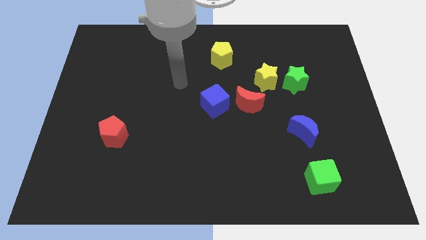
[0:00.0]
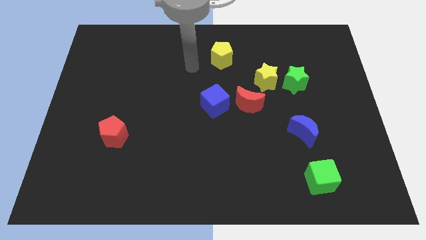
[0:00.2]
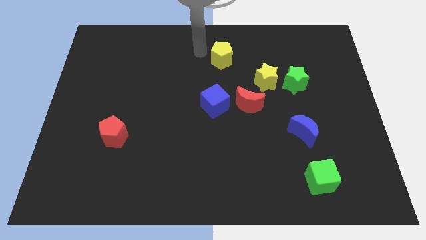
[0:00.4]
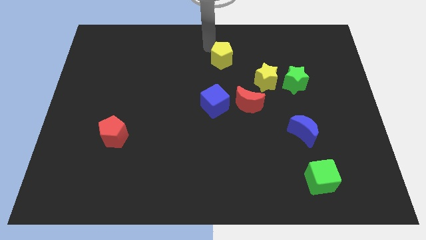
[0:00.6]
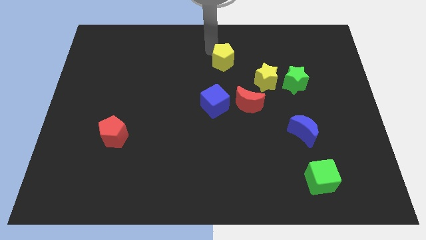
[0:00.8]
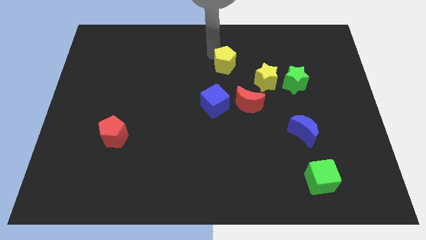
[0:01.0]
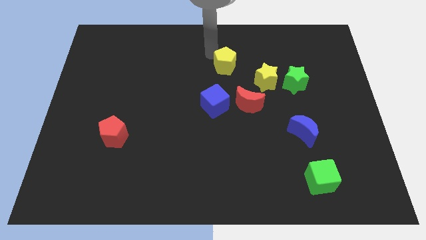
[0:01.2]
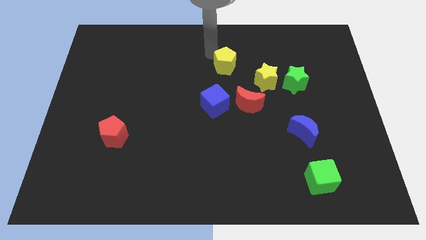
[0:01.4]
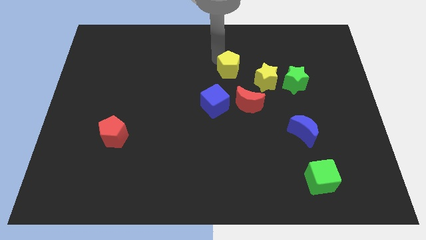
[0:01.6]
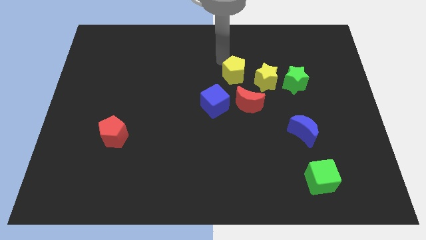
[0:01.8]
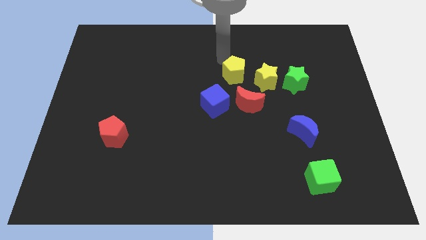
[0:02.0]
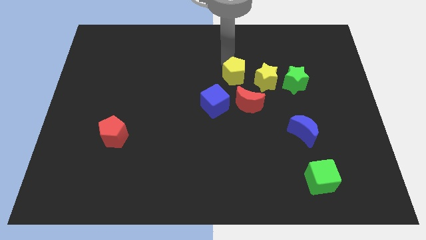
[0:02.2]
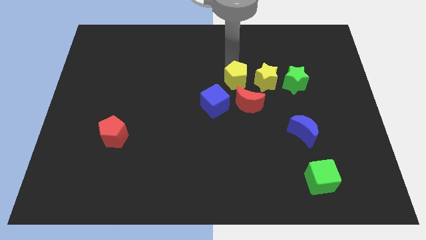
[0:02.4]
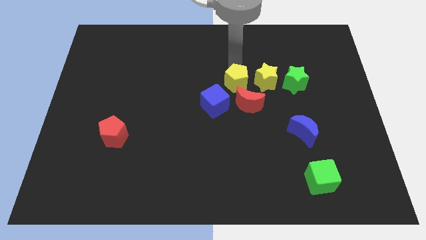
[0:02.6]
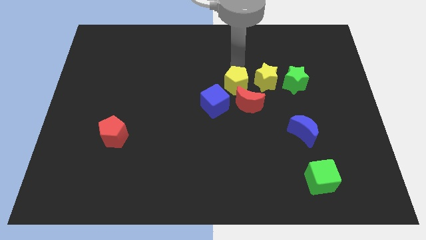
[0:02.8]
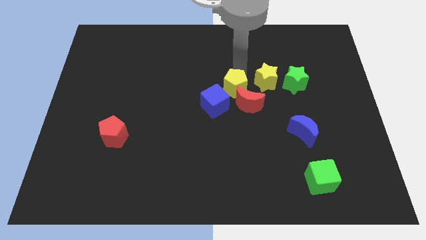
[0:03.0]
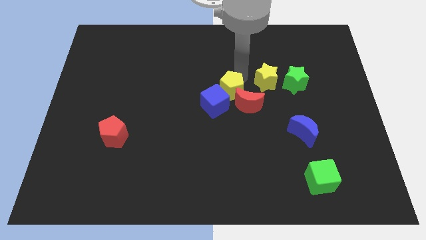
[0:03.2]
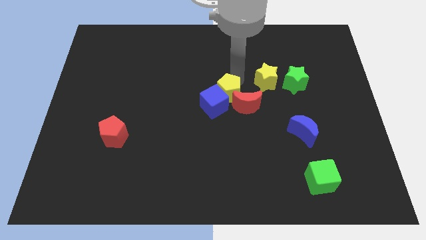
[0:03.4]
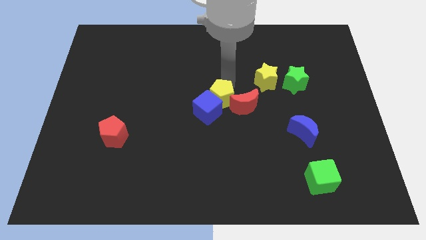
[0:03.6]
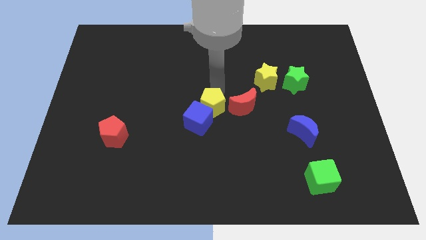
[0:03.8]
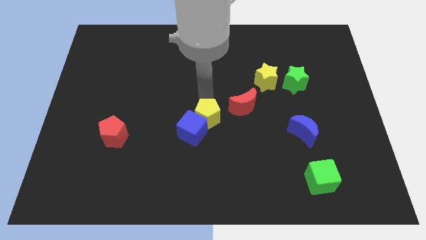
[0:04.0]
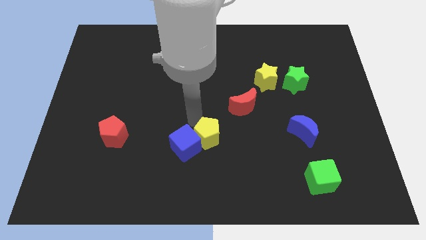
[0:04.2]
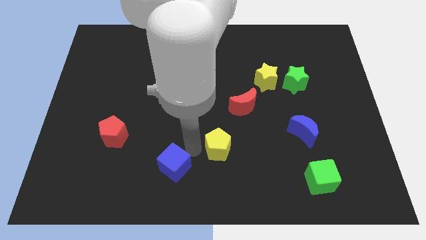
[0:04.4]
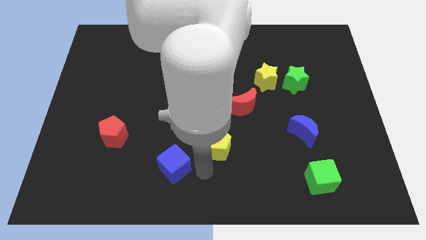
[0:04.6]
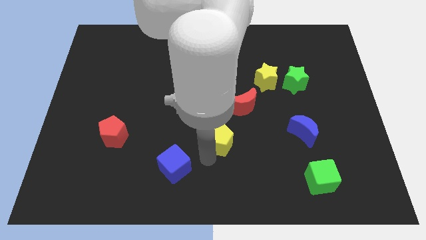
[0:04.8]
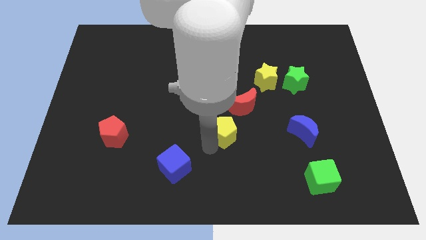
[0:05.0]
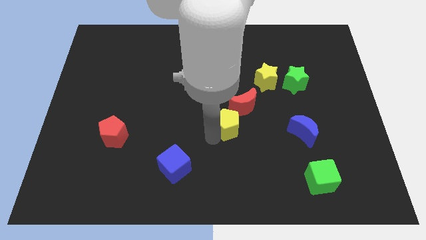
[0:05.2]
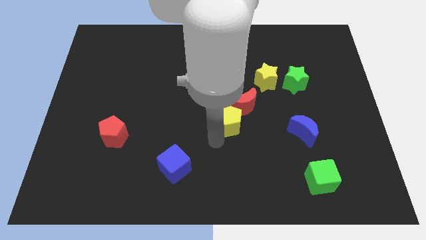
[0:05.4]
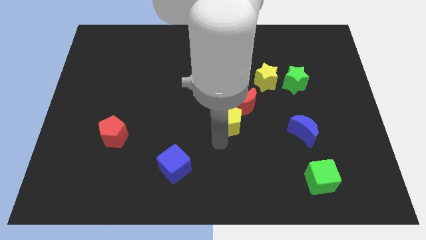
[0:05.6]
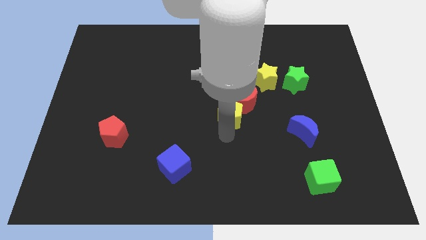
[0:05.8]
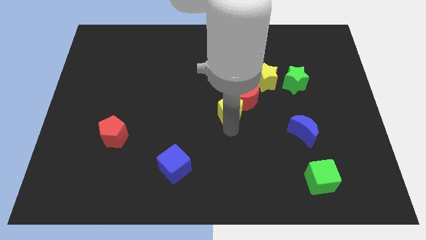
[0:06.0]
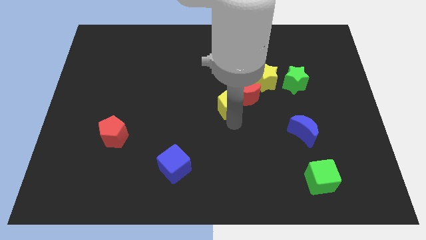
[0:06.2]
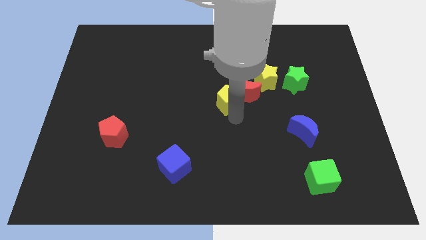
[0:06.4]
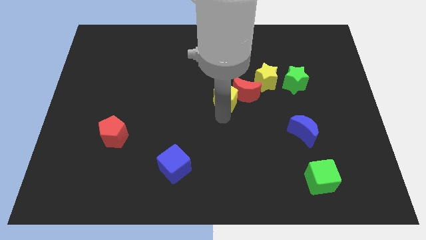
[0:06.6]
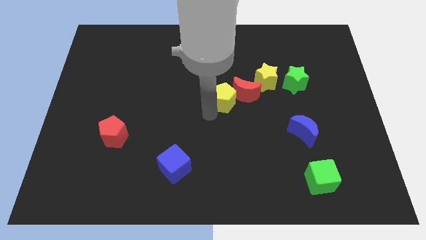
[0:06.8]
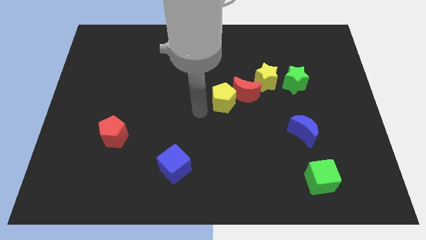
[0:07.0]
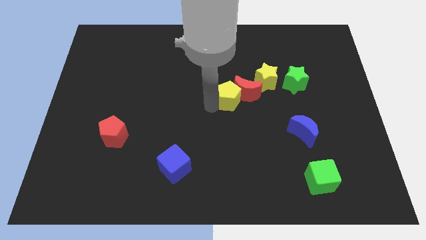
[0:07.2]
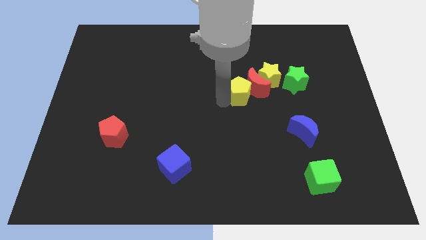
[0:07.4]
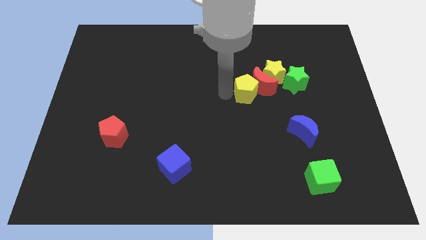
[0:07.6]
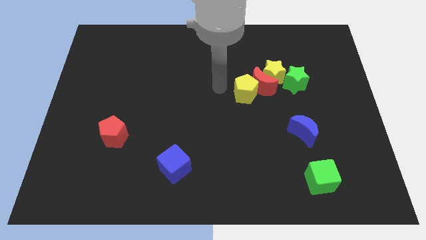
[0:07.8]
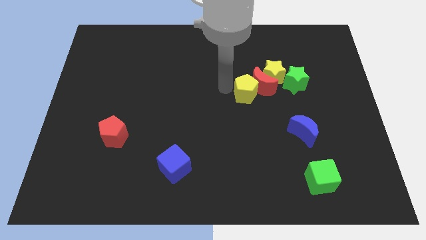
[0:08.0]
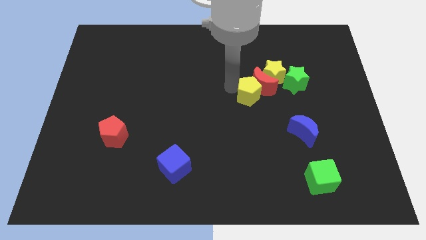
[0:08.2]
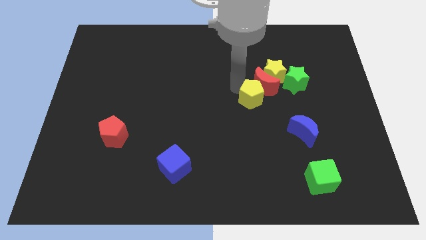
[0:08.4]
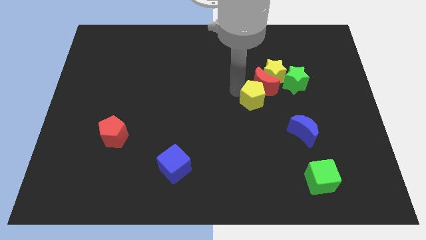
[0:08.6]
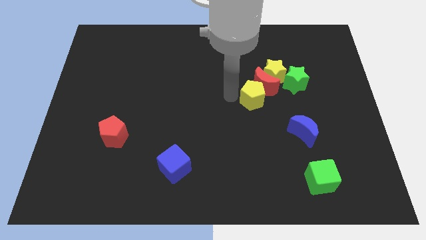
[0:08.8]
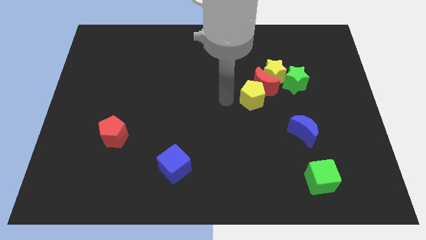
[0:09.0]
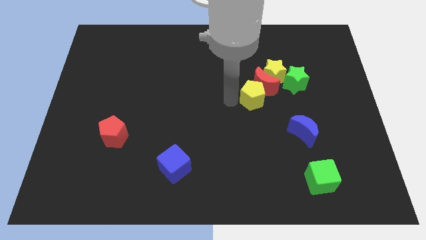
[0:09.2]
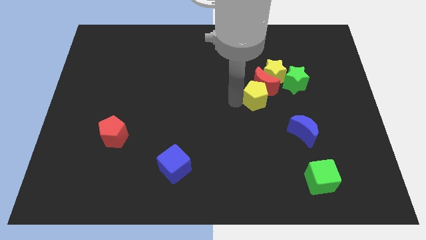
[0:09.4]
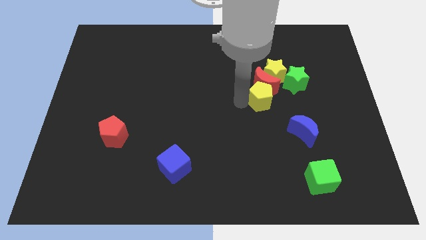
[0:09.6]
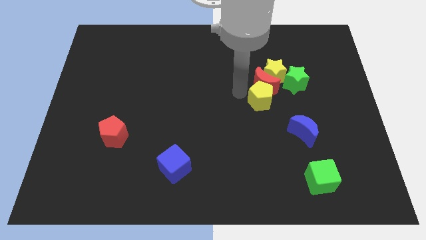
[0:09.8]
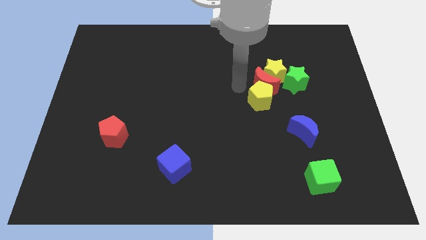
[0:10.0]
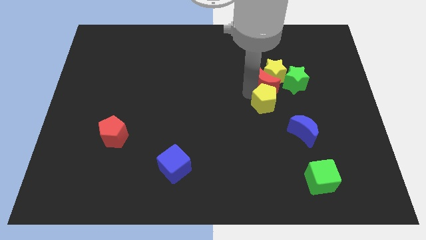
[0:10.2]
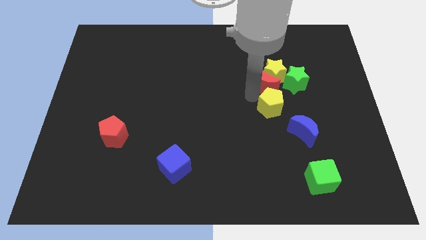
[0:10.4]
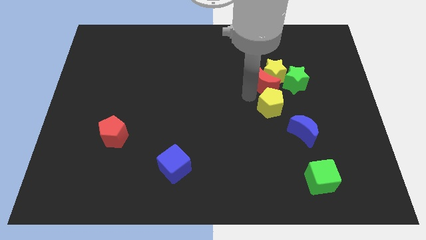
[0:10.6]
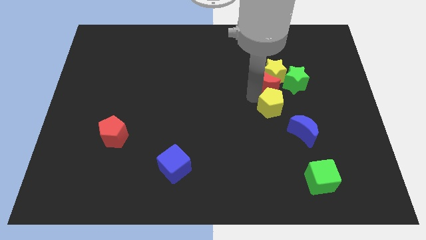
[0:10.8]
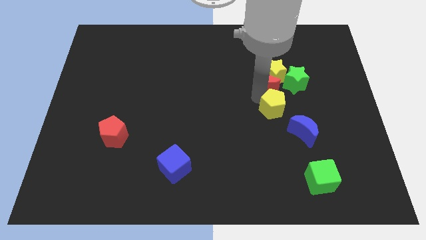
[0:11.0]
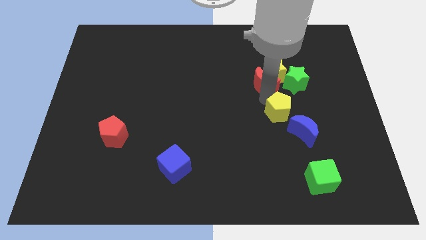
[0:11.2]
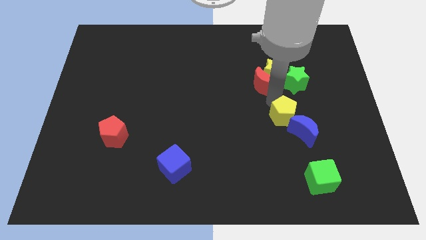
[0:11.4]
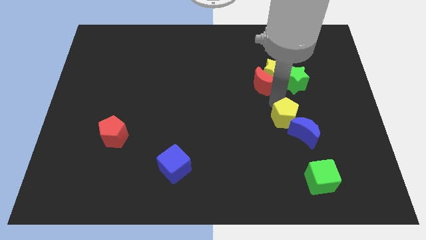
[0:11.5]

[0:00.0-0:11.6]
push the yellow pentagon towards the blue moon

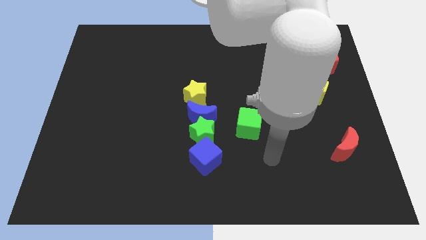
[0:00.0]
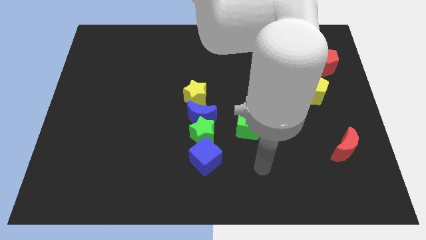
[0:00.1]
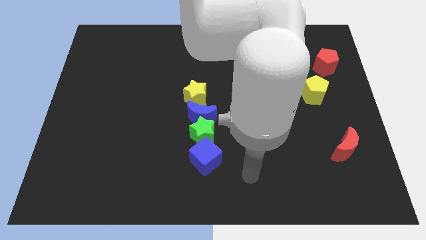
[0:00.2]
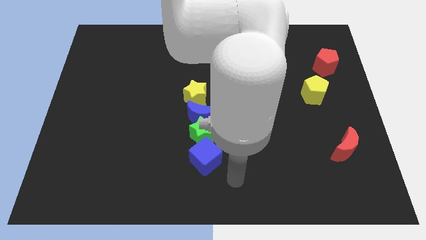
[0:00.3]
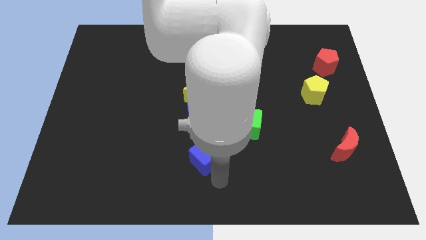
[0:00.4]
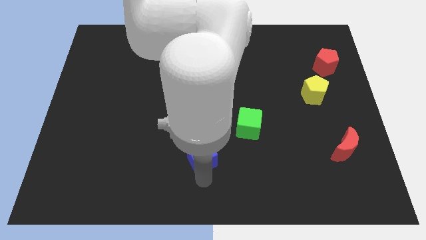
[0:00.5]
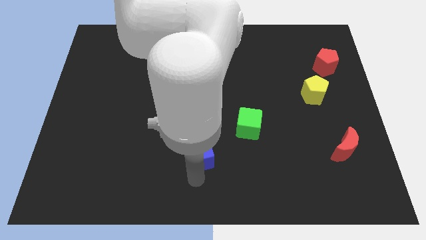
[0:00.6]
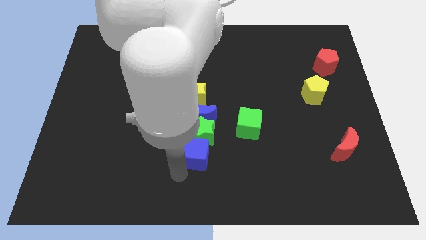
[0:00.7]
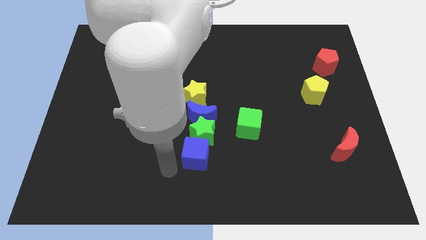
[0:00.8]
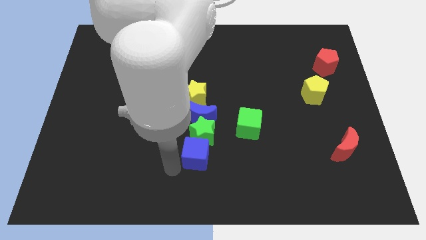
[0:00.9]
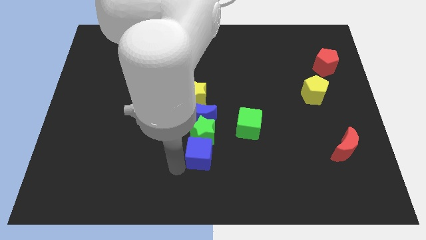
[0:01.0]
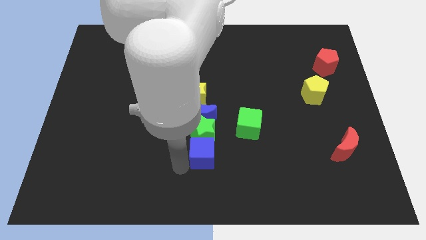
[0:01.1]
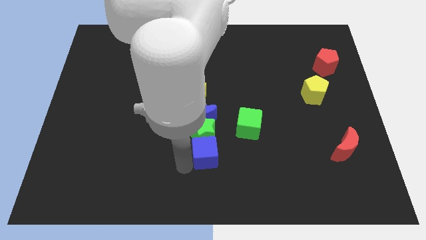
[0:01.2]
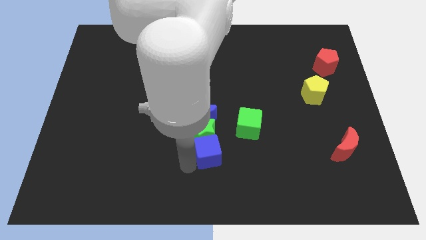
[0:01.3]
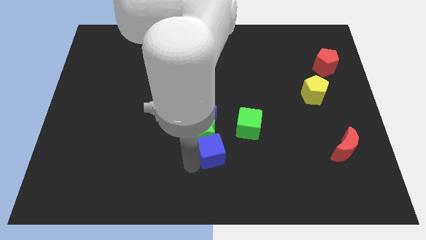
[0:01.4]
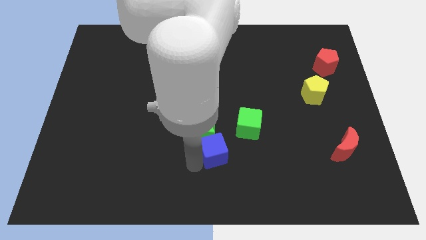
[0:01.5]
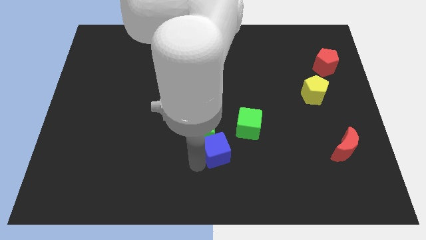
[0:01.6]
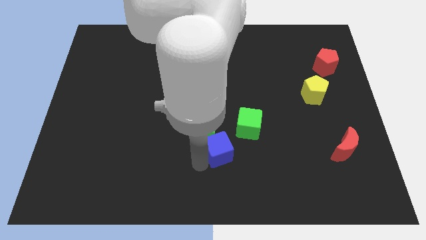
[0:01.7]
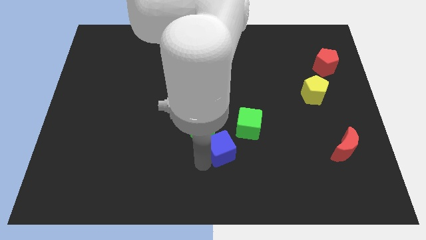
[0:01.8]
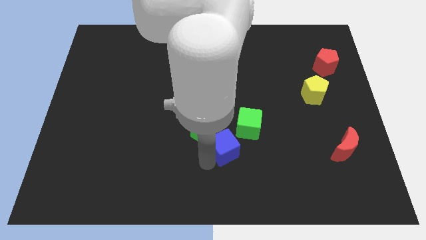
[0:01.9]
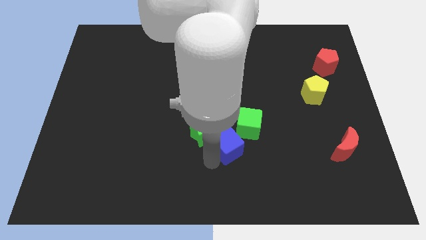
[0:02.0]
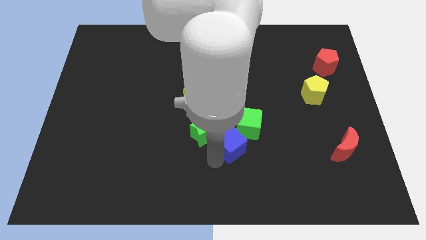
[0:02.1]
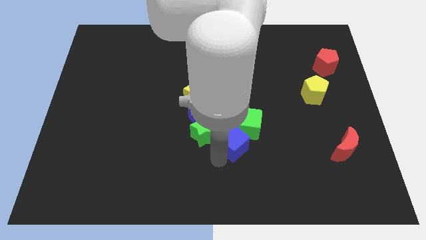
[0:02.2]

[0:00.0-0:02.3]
push the blue cube towards the green cube
